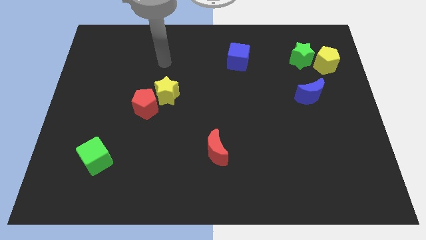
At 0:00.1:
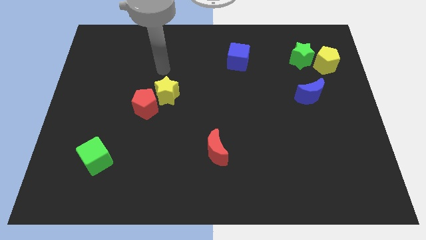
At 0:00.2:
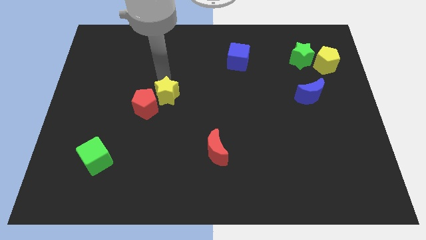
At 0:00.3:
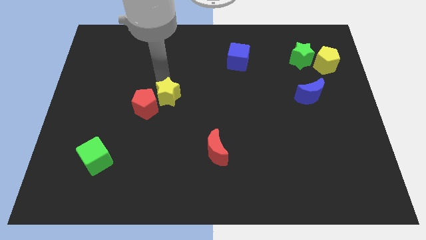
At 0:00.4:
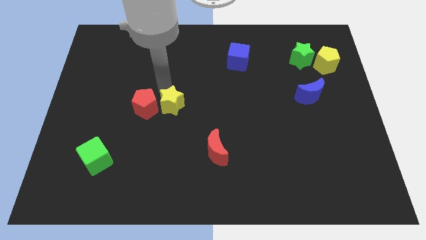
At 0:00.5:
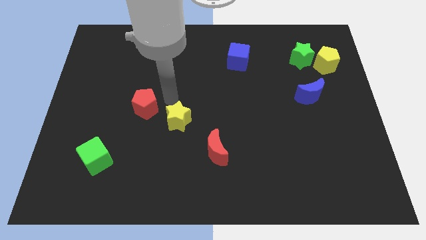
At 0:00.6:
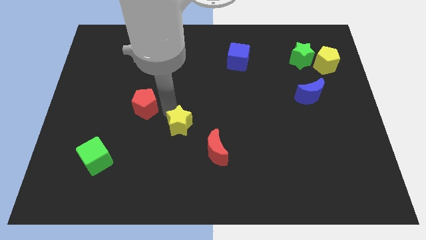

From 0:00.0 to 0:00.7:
move the red pentagon away from the yellow star

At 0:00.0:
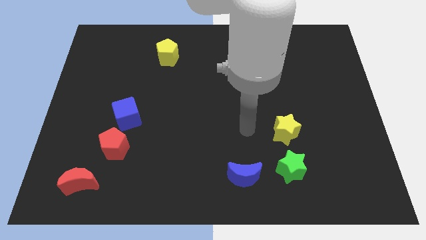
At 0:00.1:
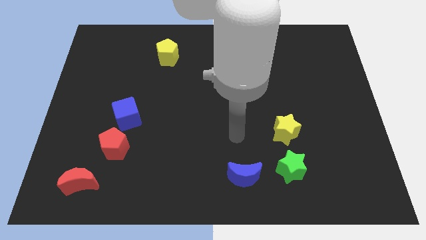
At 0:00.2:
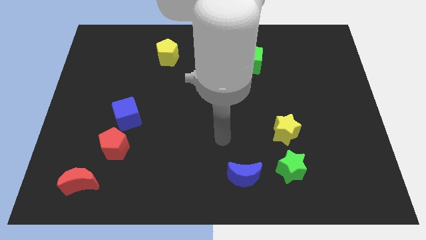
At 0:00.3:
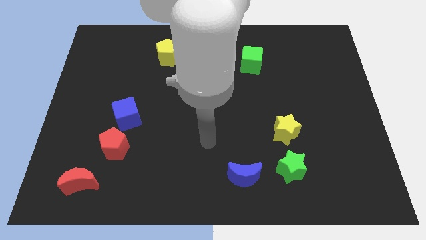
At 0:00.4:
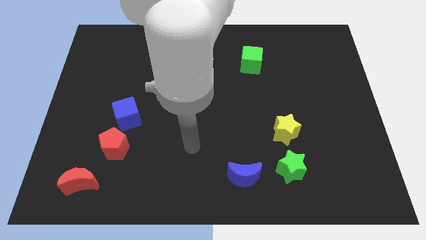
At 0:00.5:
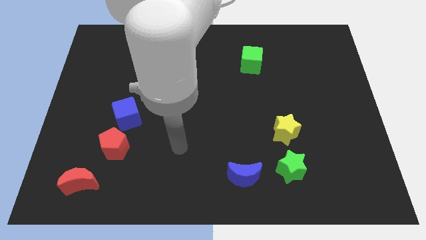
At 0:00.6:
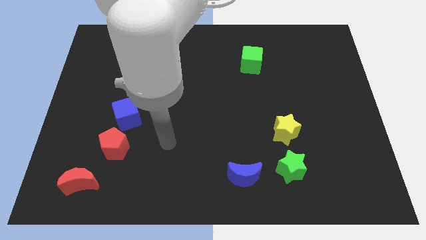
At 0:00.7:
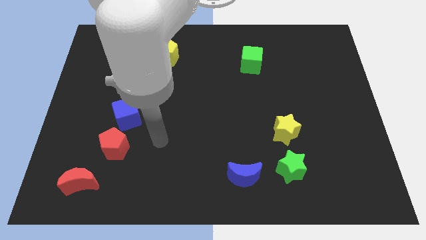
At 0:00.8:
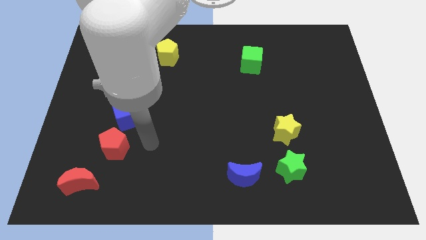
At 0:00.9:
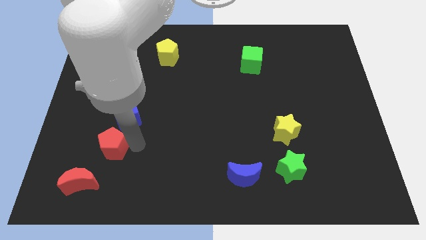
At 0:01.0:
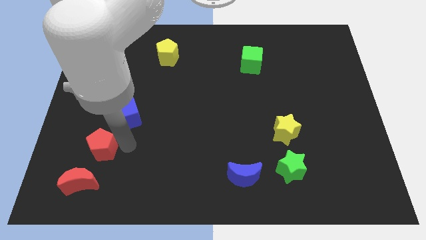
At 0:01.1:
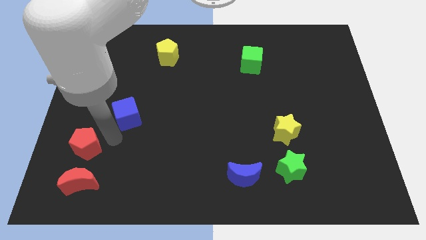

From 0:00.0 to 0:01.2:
pull the blue cube apart from the red pentagon

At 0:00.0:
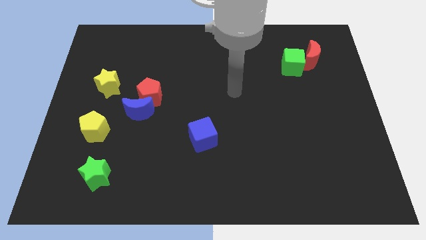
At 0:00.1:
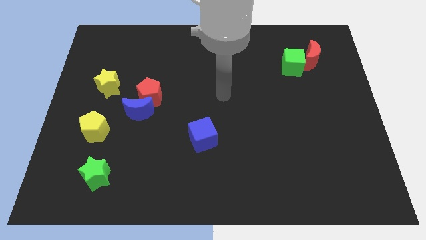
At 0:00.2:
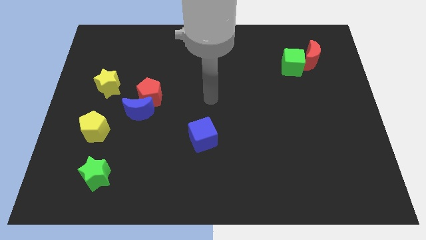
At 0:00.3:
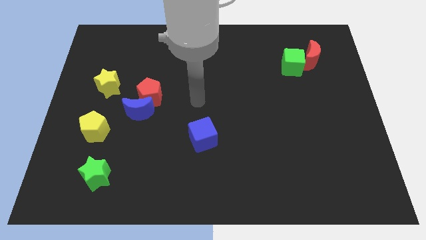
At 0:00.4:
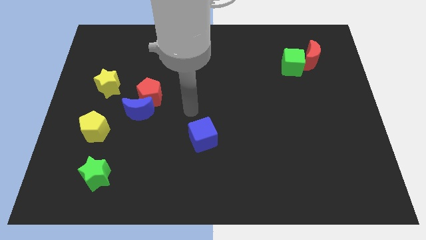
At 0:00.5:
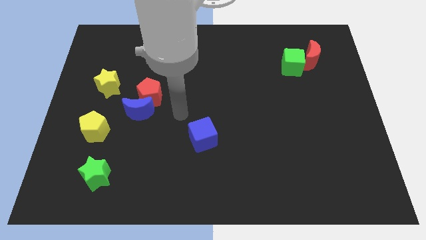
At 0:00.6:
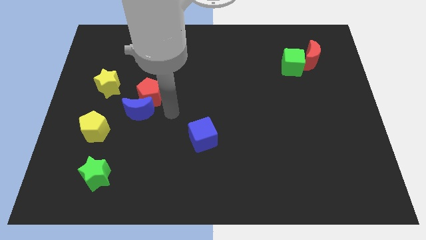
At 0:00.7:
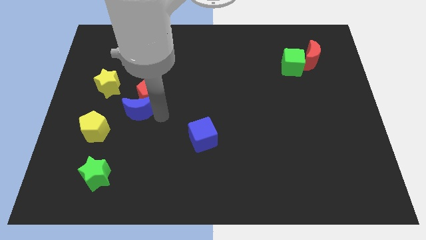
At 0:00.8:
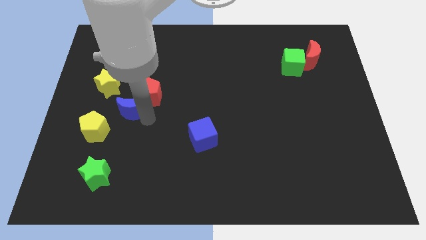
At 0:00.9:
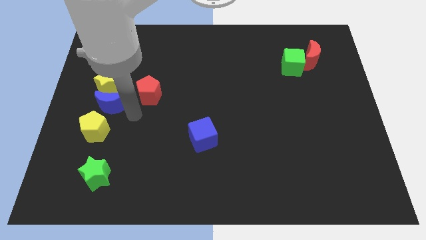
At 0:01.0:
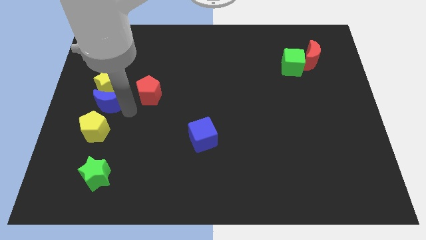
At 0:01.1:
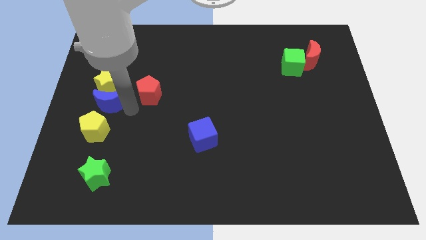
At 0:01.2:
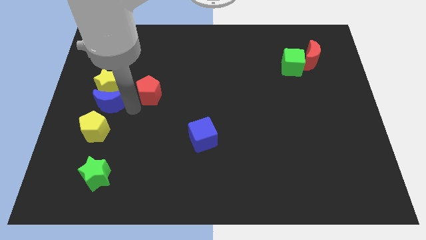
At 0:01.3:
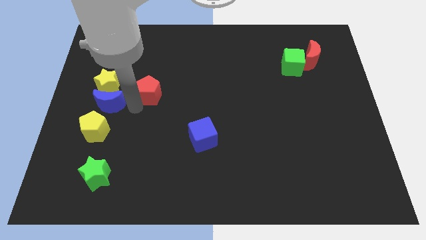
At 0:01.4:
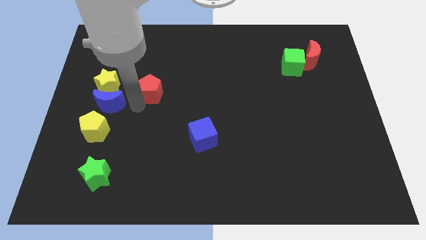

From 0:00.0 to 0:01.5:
move the red pentagon away from the blue moon

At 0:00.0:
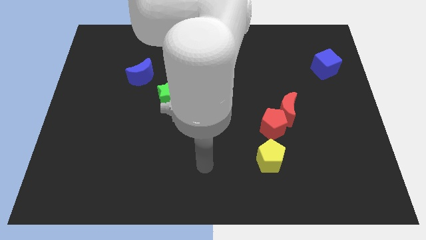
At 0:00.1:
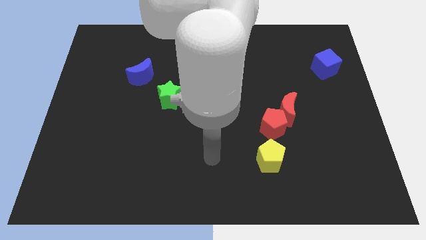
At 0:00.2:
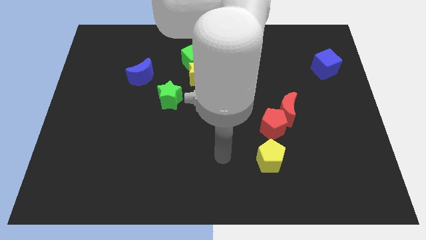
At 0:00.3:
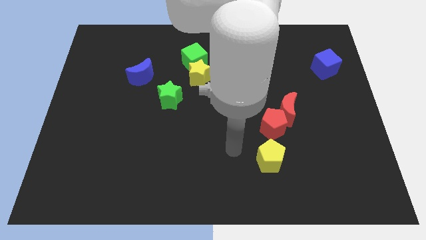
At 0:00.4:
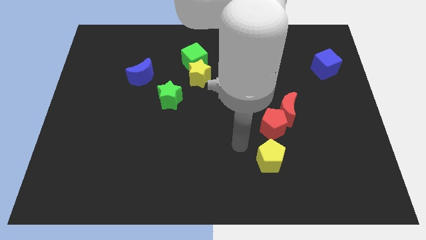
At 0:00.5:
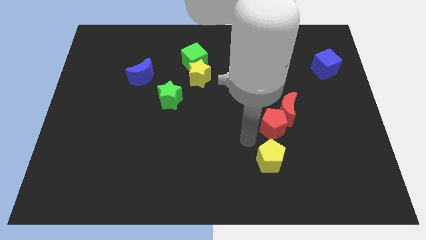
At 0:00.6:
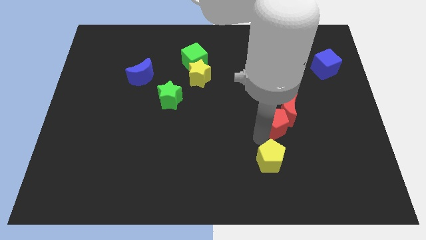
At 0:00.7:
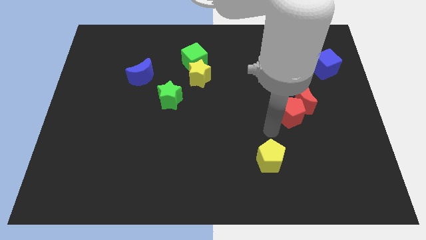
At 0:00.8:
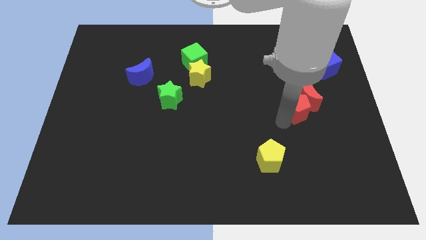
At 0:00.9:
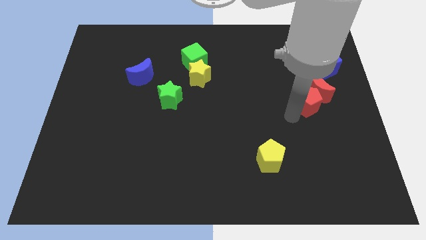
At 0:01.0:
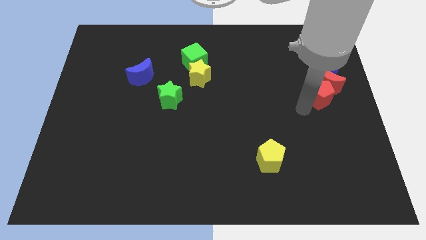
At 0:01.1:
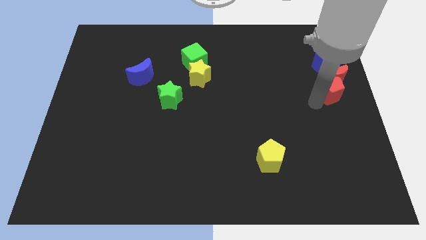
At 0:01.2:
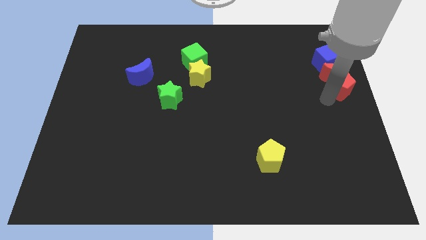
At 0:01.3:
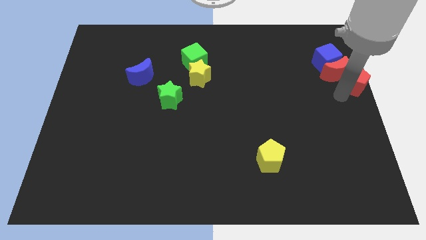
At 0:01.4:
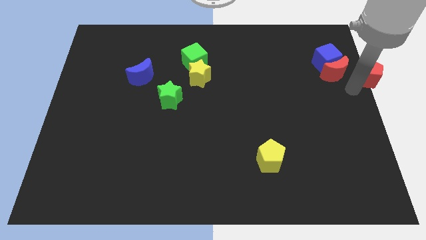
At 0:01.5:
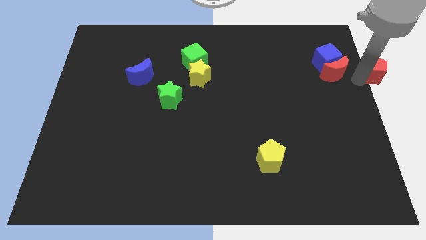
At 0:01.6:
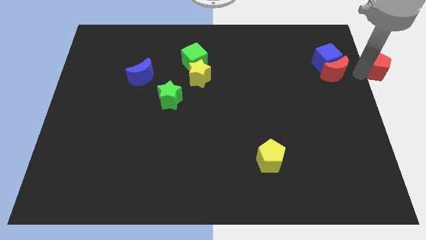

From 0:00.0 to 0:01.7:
separate the red moon from the red pentagon

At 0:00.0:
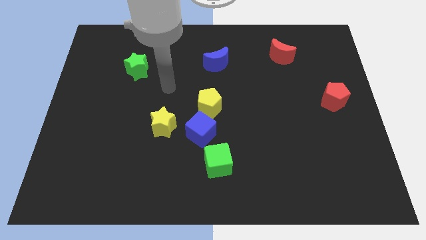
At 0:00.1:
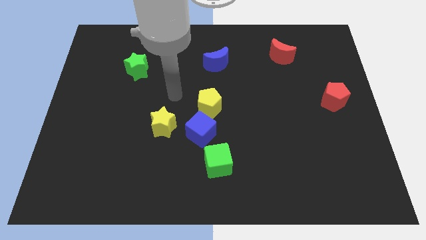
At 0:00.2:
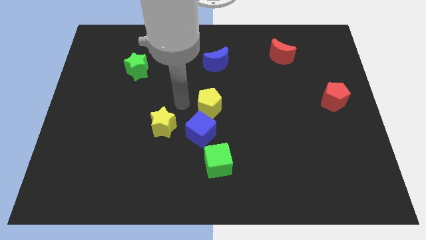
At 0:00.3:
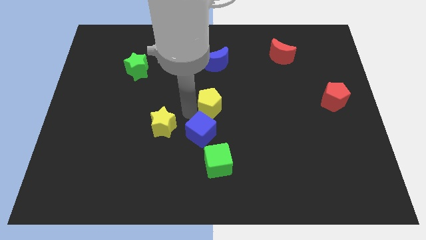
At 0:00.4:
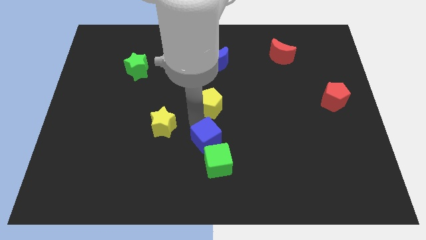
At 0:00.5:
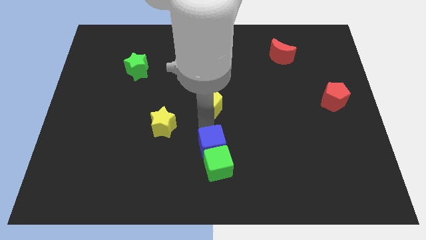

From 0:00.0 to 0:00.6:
move the yellow pentagon away from the blue cube

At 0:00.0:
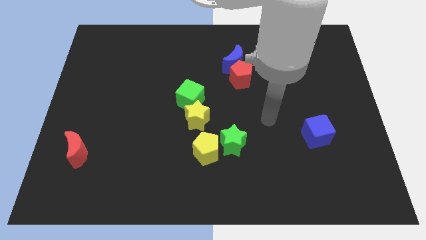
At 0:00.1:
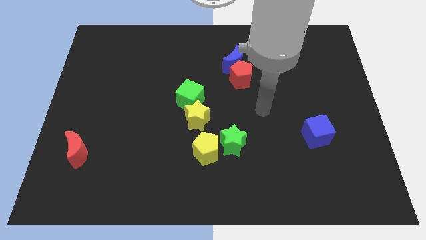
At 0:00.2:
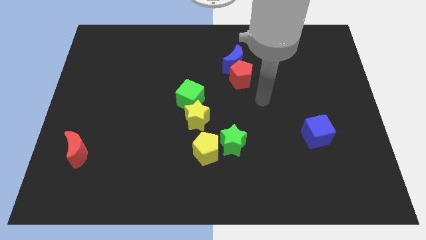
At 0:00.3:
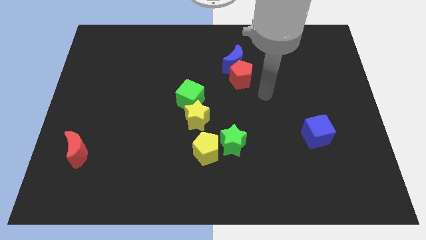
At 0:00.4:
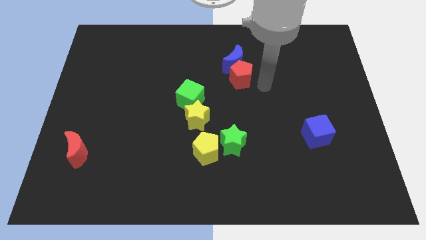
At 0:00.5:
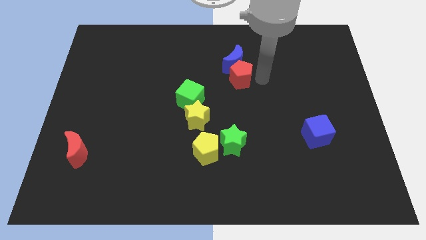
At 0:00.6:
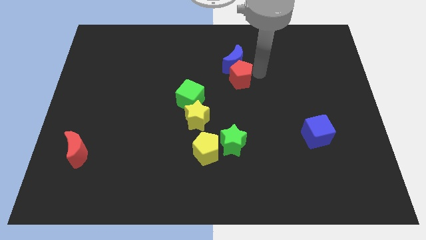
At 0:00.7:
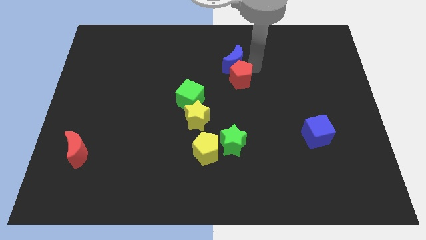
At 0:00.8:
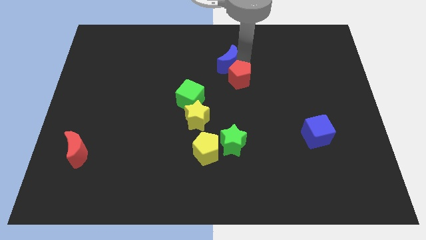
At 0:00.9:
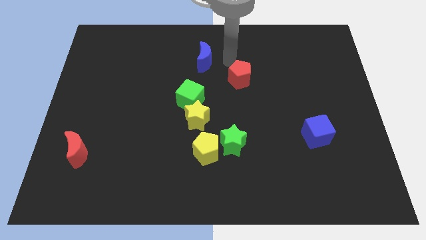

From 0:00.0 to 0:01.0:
pull the red pentagon apart from the blue moon

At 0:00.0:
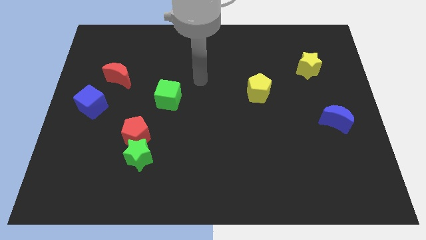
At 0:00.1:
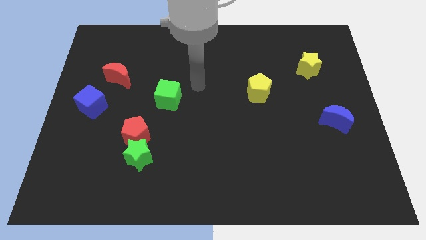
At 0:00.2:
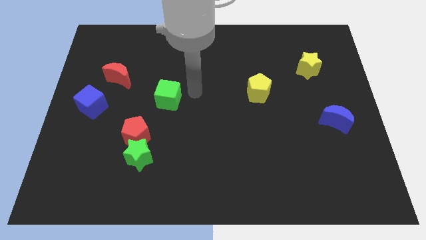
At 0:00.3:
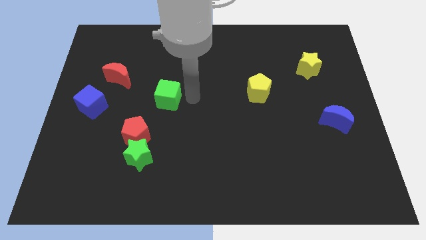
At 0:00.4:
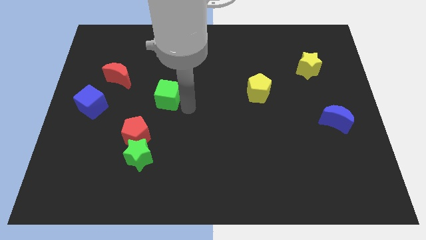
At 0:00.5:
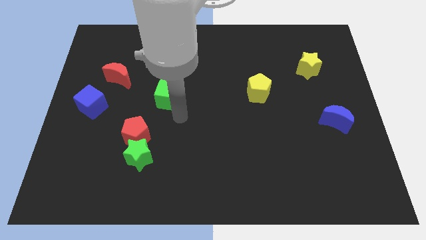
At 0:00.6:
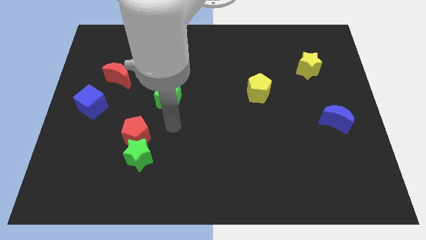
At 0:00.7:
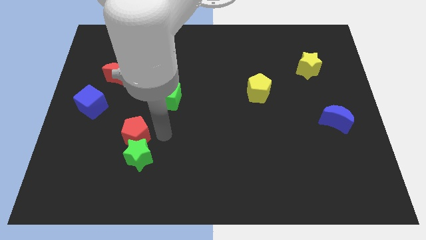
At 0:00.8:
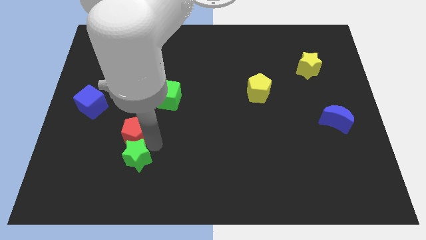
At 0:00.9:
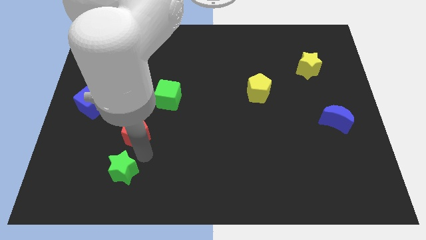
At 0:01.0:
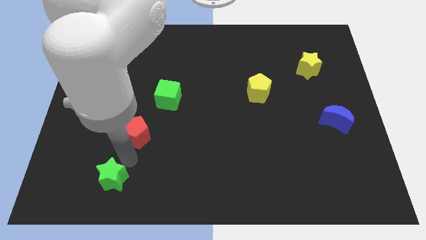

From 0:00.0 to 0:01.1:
pull the red pentagon apart from the green star

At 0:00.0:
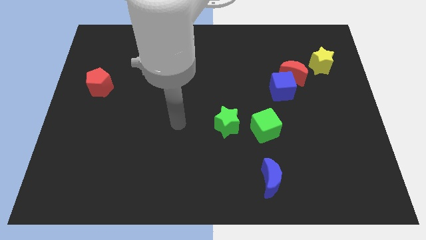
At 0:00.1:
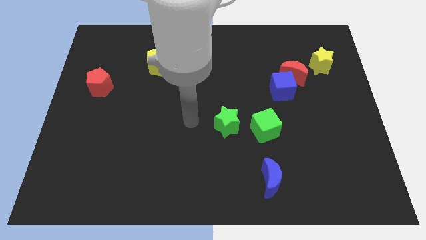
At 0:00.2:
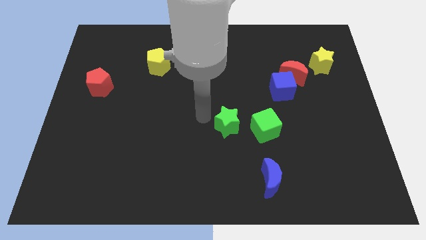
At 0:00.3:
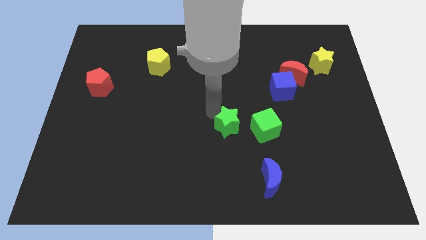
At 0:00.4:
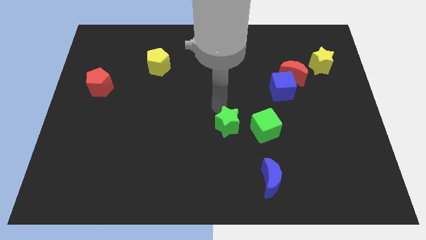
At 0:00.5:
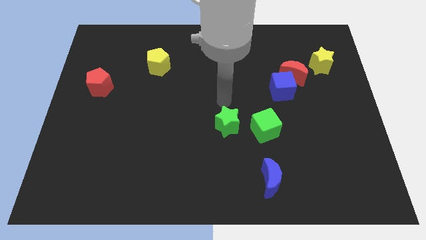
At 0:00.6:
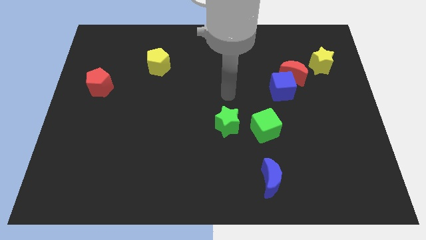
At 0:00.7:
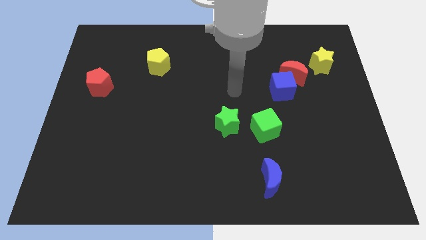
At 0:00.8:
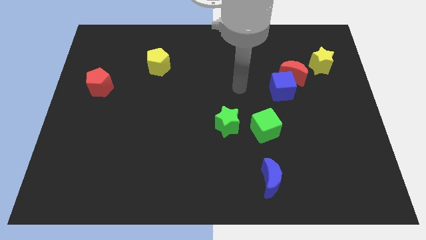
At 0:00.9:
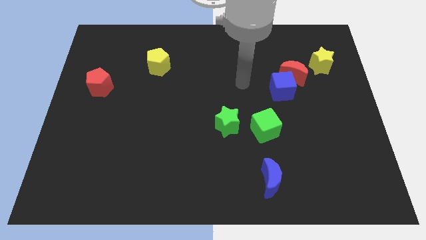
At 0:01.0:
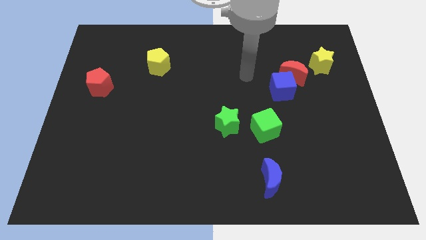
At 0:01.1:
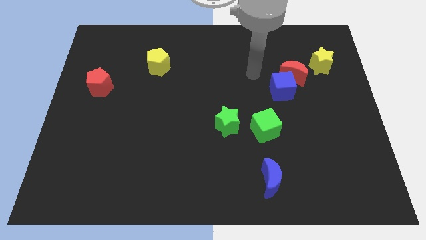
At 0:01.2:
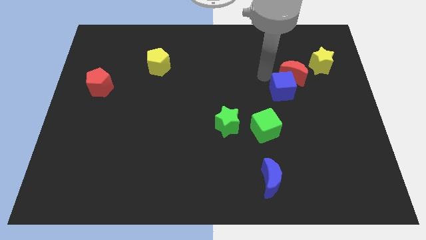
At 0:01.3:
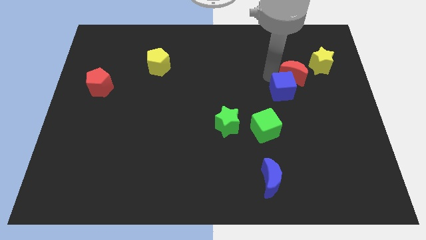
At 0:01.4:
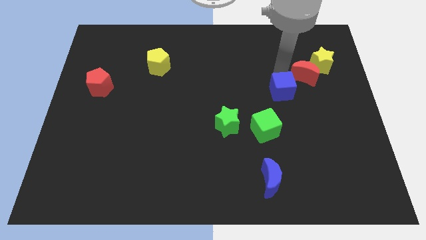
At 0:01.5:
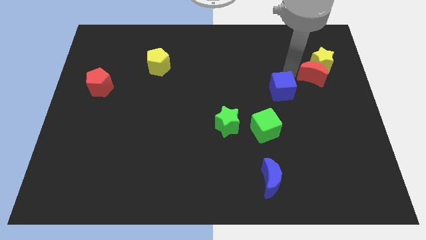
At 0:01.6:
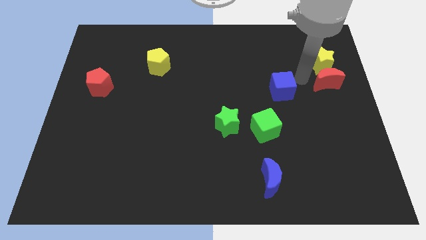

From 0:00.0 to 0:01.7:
pull the blue cube apart from the red moon
